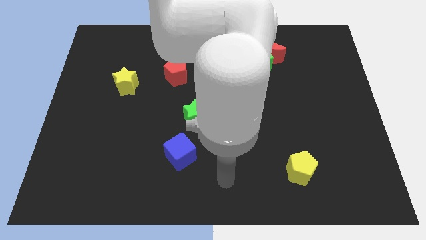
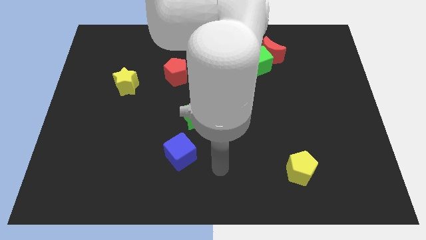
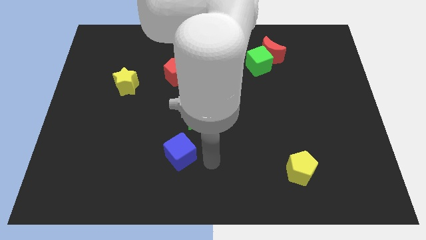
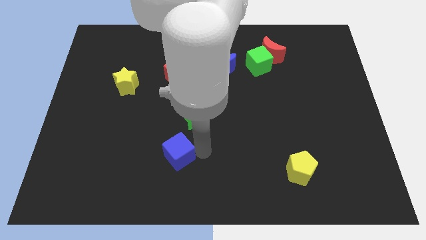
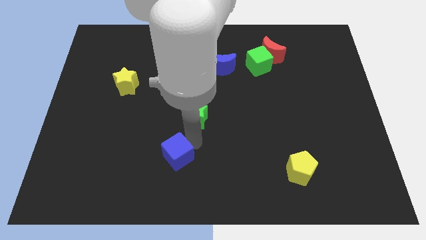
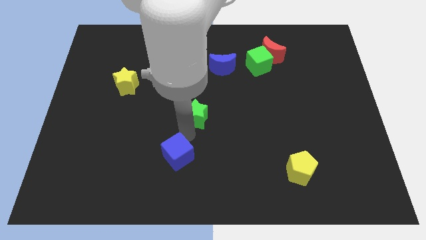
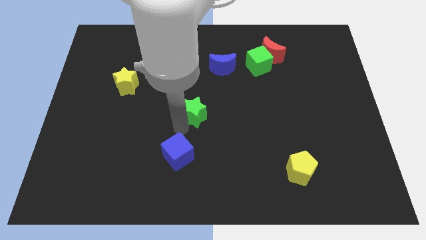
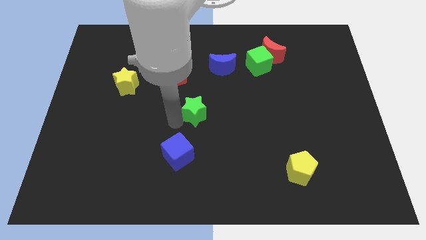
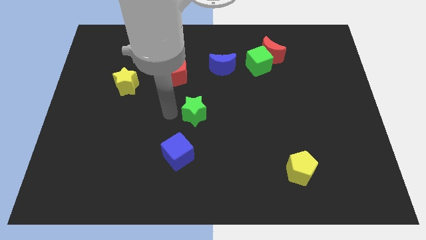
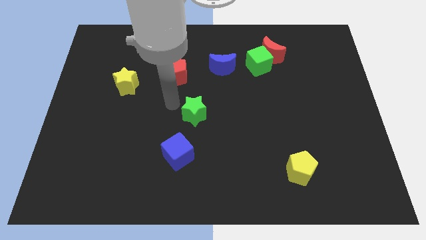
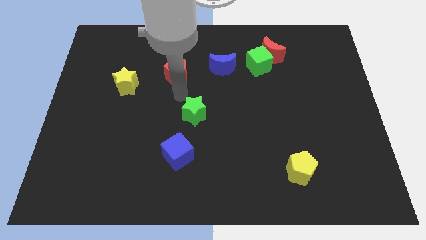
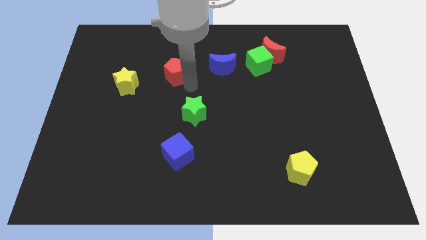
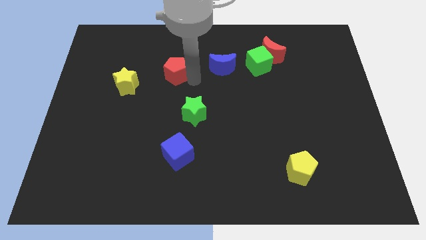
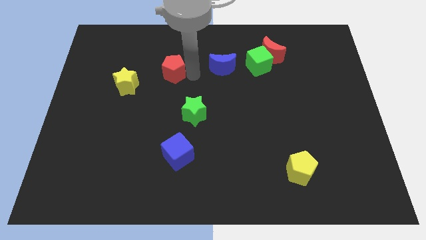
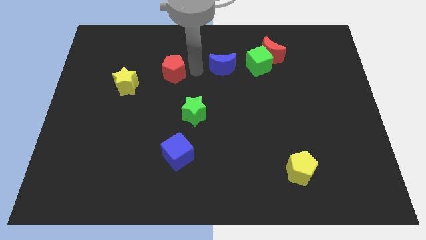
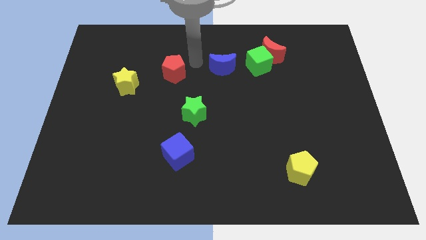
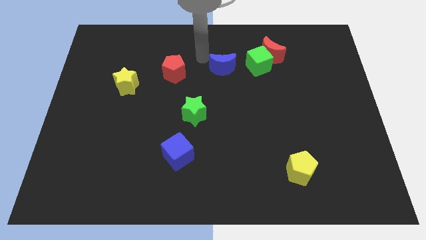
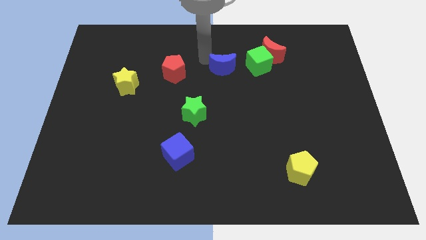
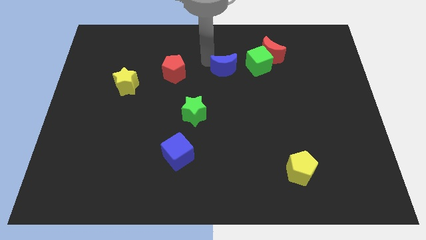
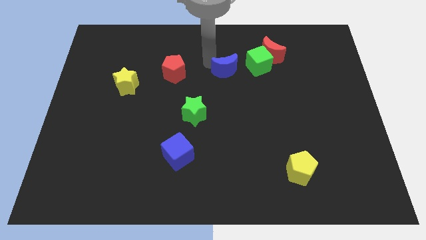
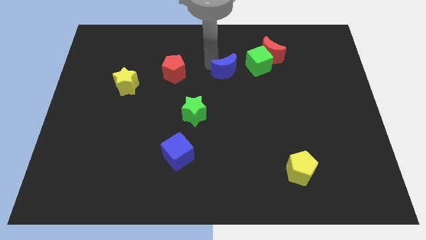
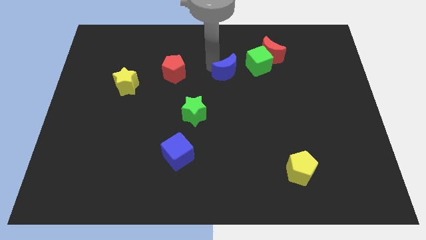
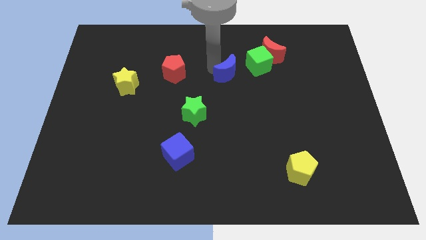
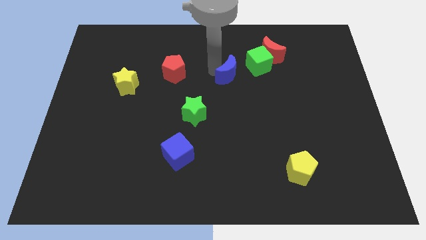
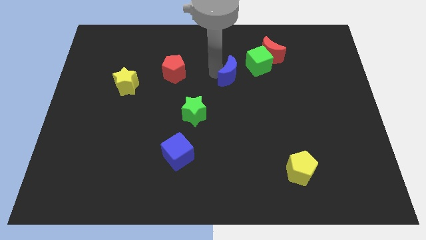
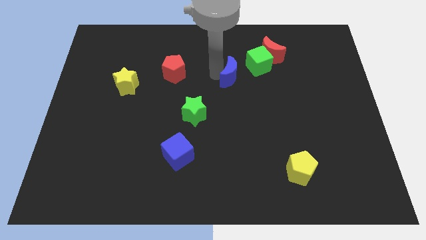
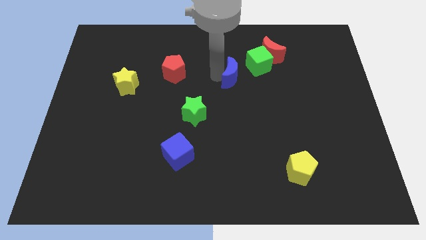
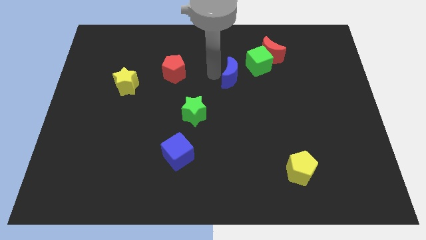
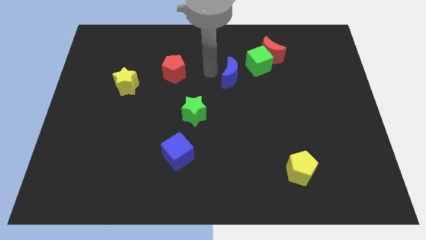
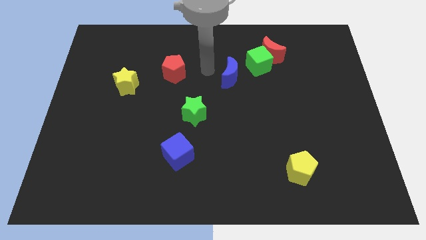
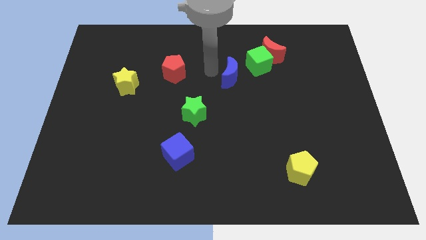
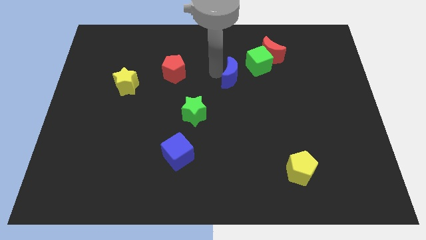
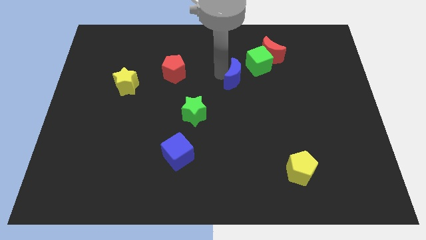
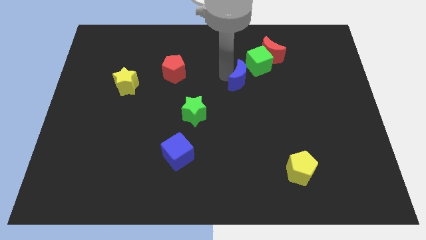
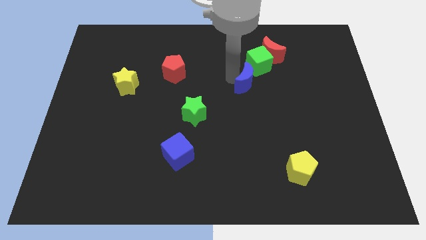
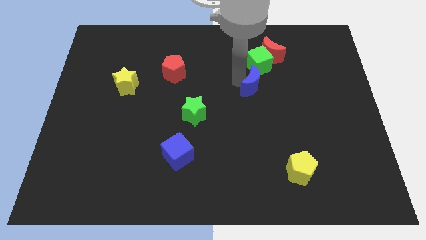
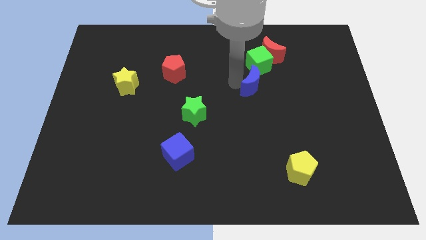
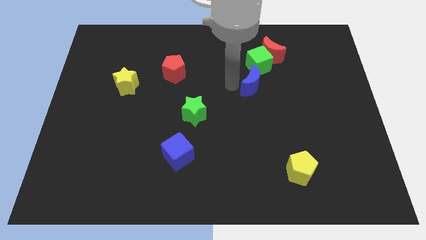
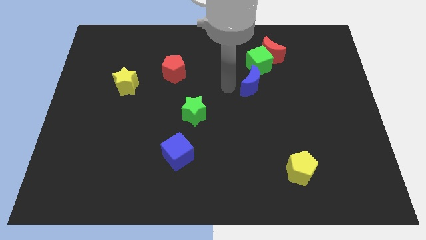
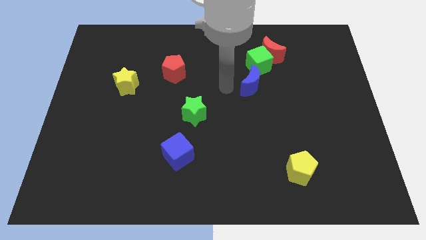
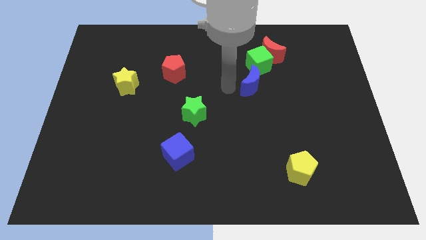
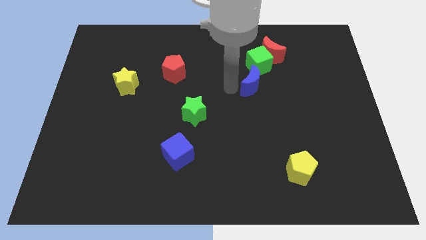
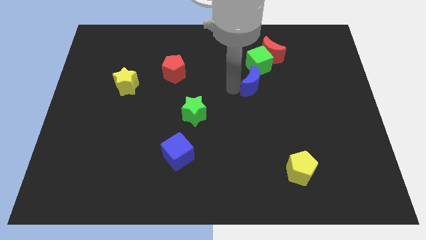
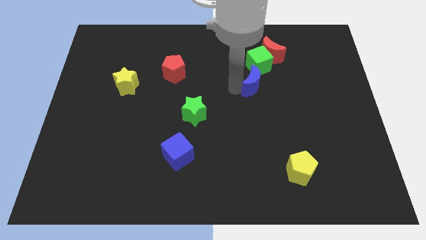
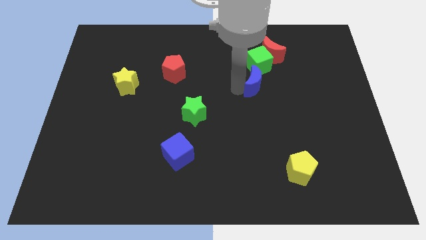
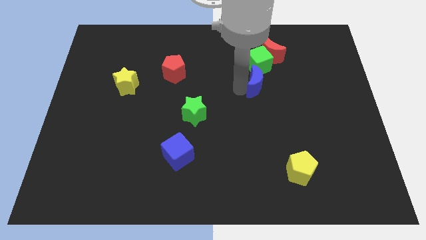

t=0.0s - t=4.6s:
slide the blue moon to the right a bit

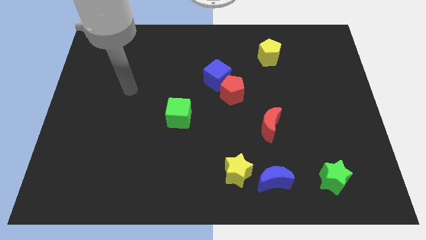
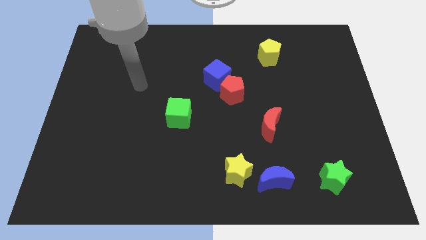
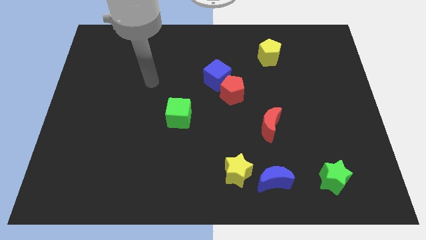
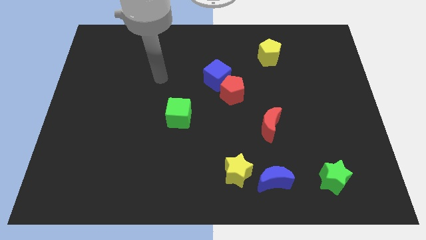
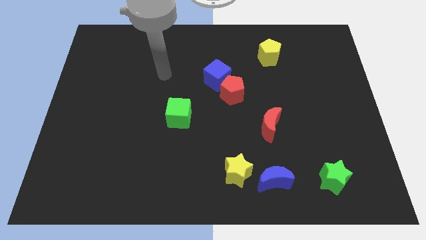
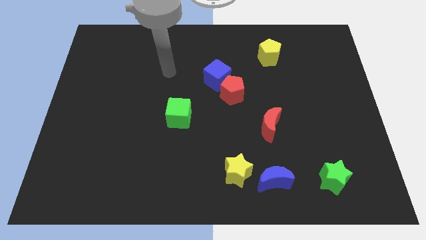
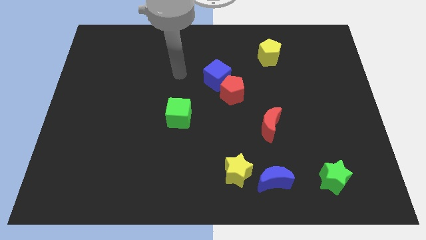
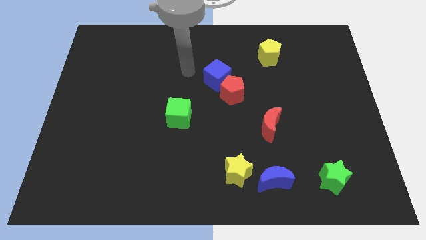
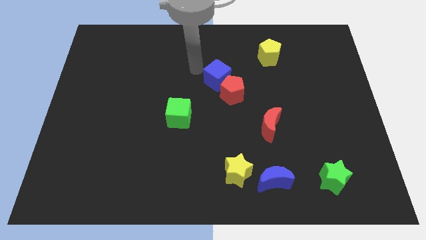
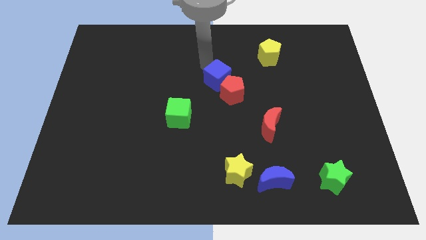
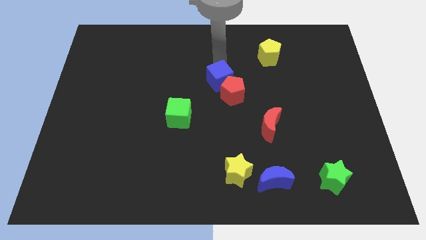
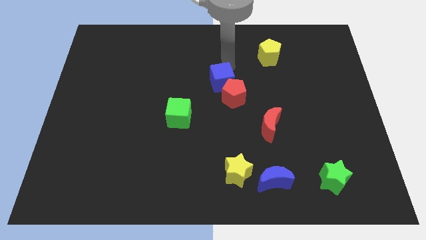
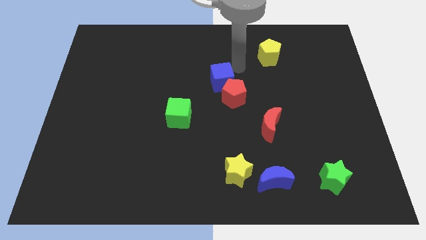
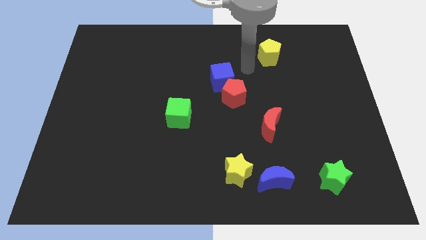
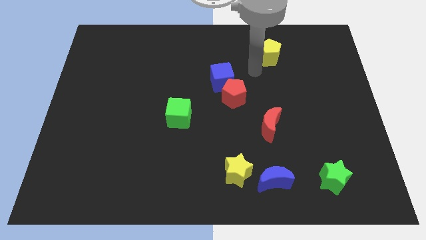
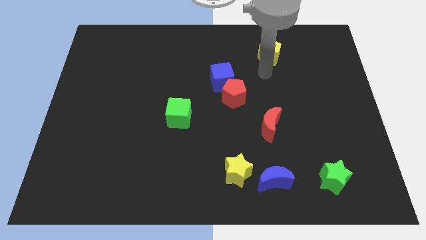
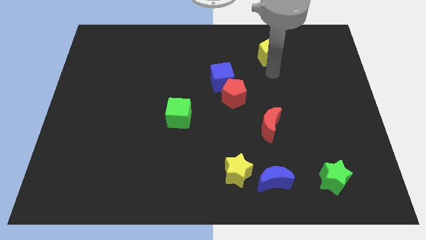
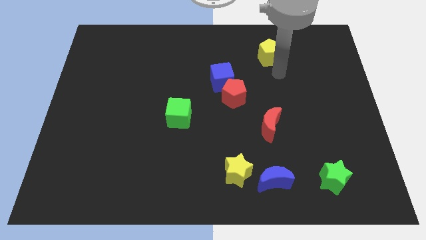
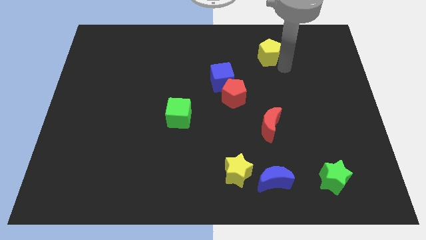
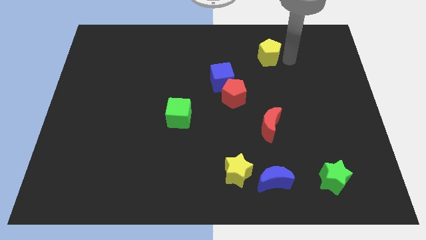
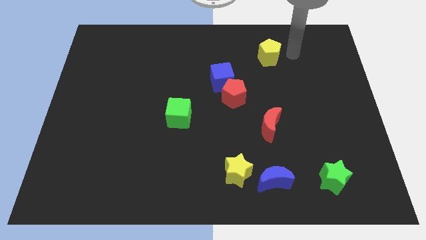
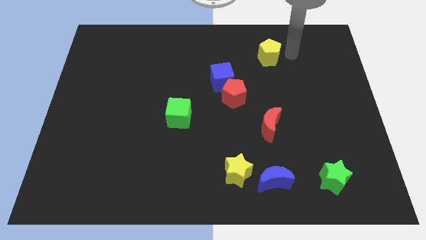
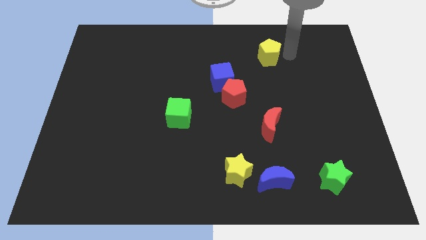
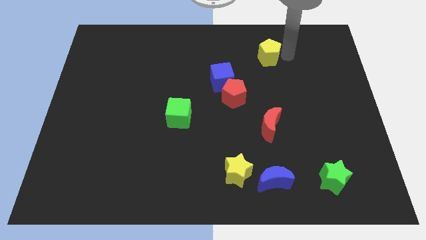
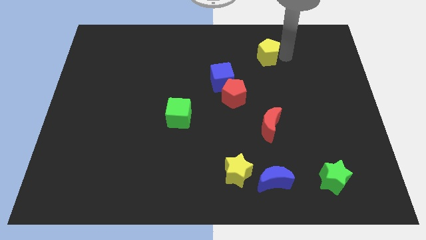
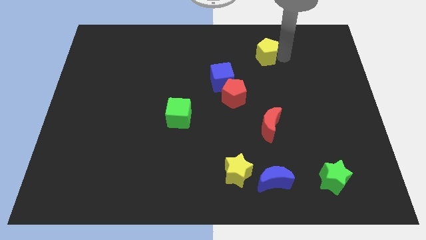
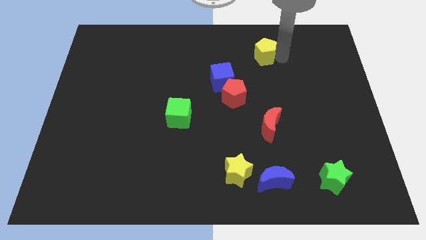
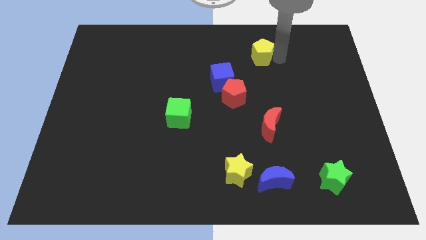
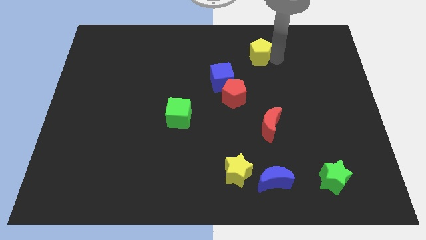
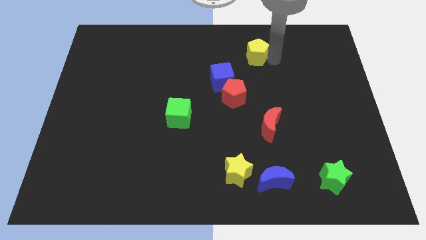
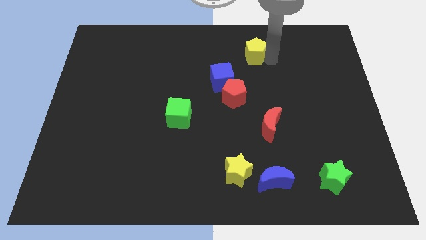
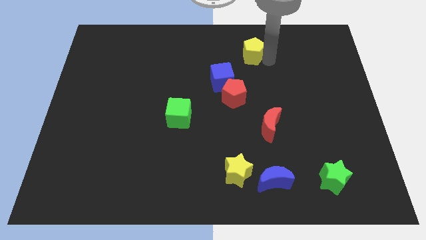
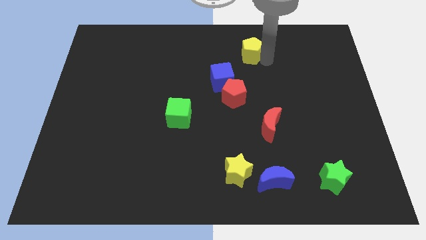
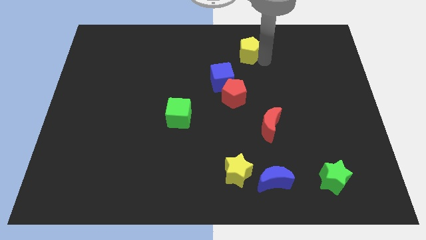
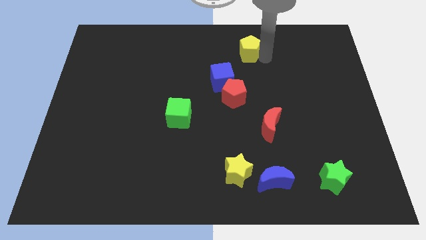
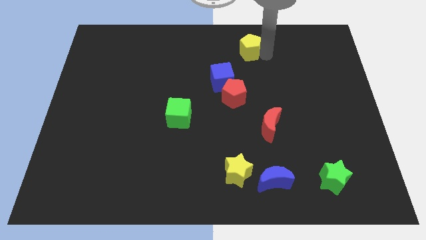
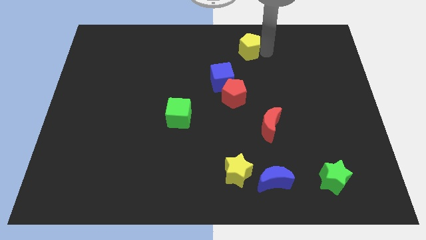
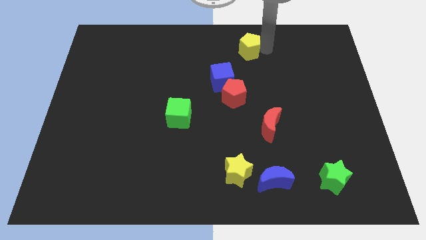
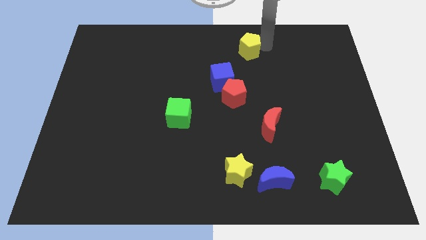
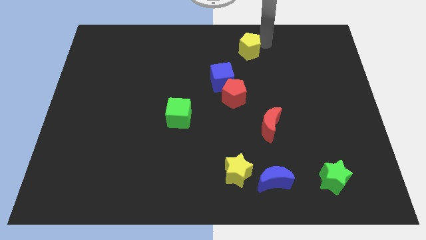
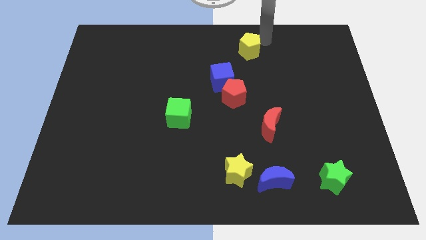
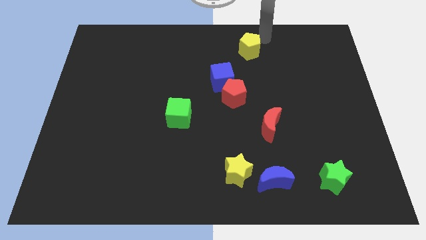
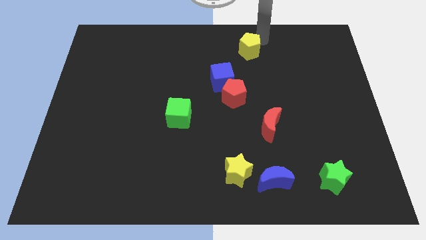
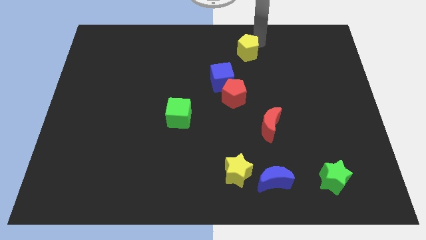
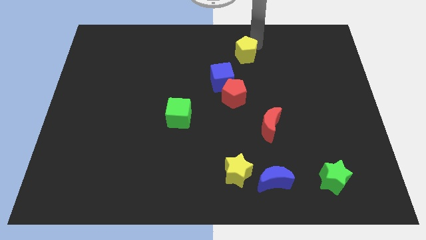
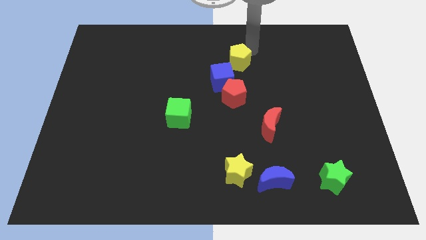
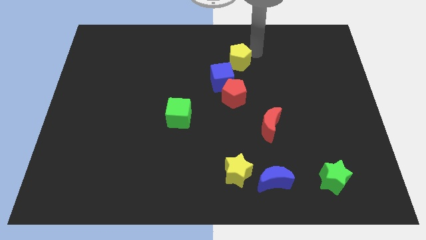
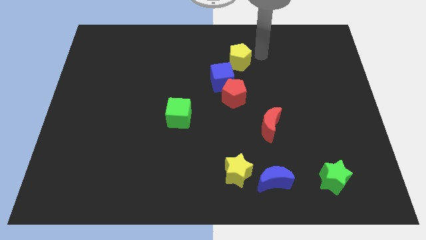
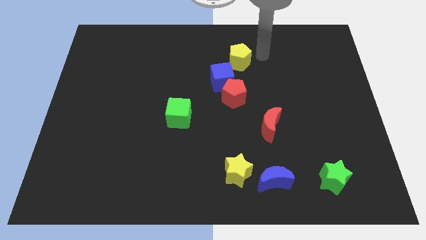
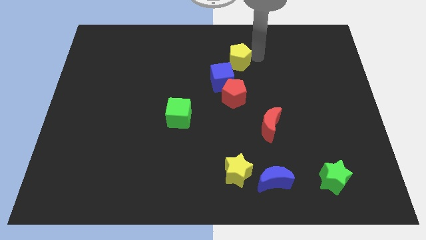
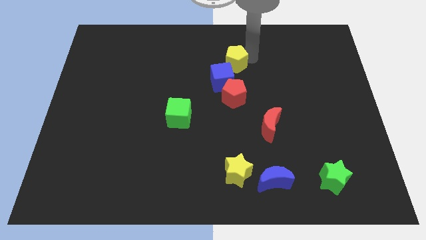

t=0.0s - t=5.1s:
slightly slide the yellow pentagon down and to the left diagonally
